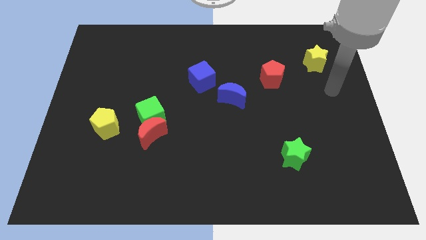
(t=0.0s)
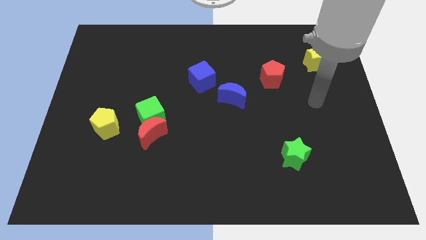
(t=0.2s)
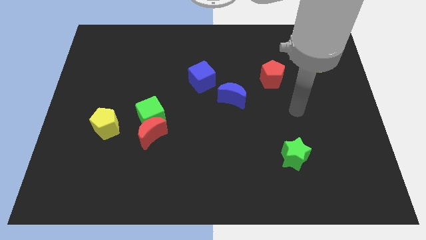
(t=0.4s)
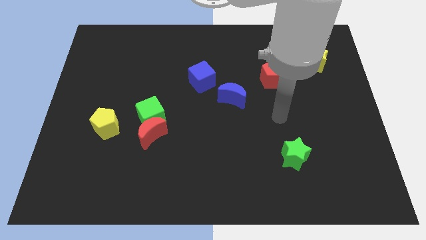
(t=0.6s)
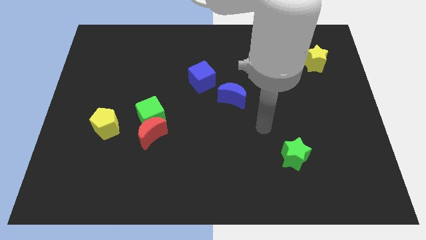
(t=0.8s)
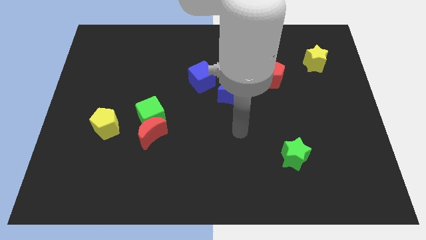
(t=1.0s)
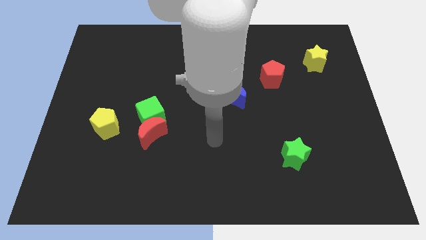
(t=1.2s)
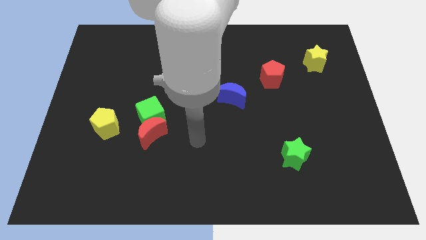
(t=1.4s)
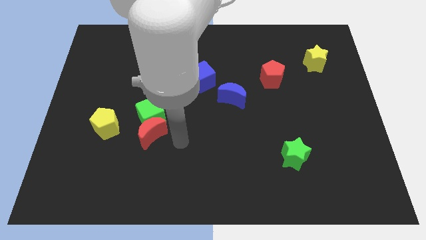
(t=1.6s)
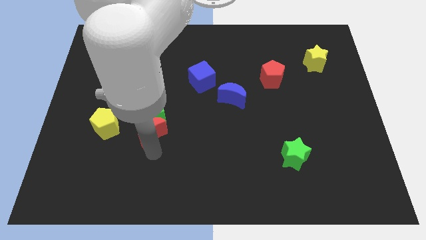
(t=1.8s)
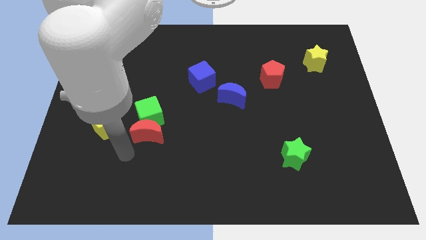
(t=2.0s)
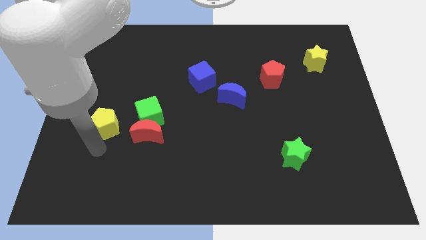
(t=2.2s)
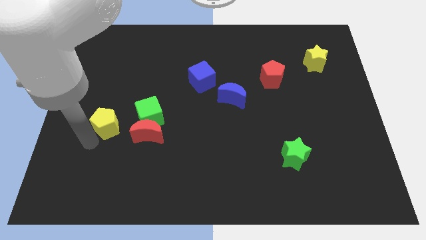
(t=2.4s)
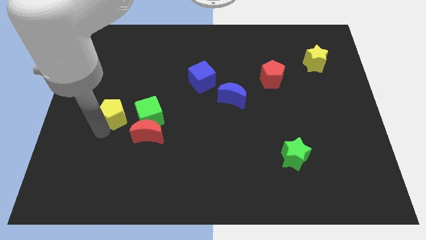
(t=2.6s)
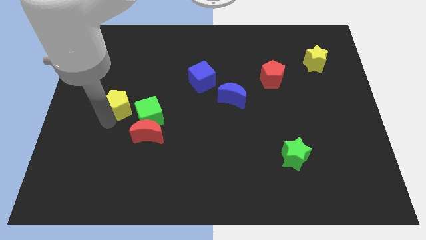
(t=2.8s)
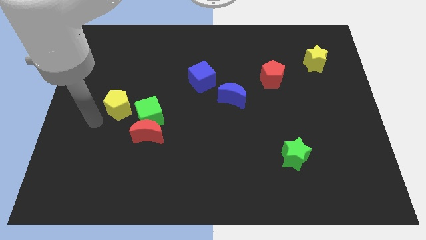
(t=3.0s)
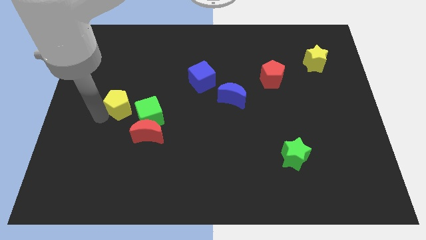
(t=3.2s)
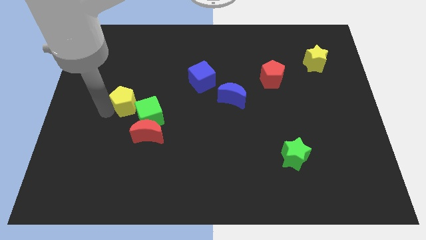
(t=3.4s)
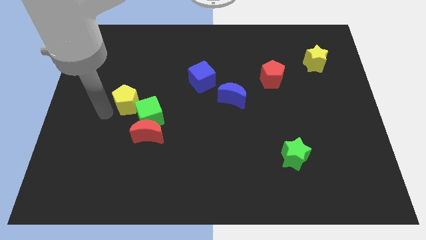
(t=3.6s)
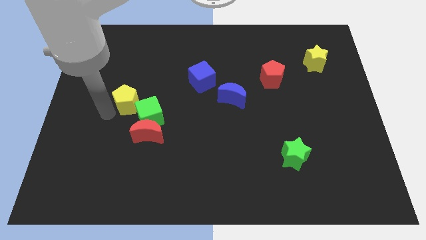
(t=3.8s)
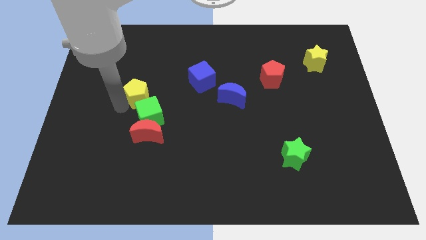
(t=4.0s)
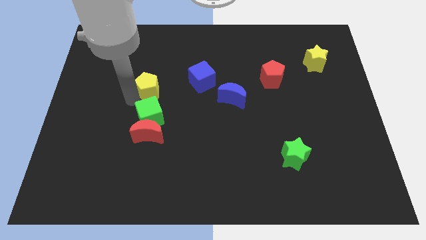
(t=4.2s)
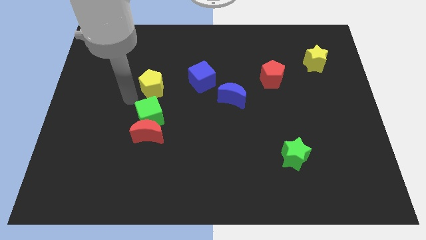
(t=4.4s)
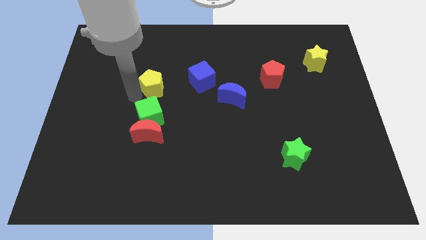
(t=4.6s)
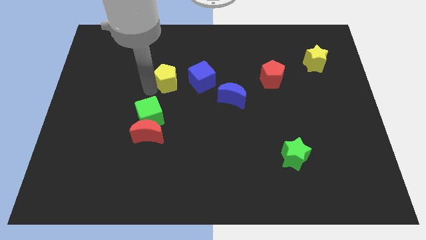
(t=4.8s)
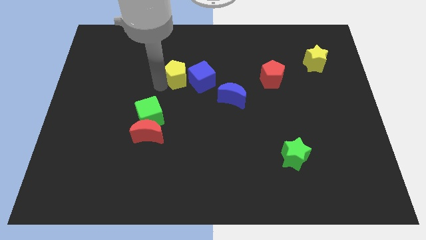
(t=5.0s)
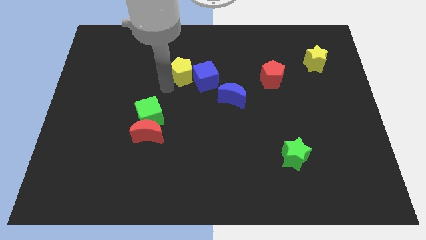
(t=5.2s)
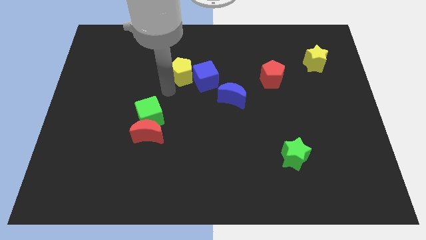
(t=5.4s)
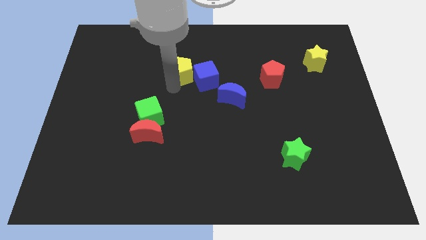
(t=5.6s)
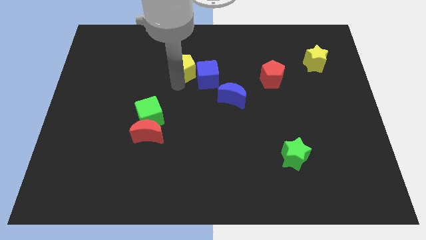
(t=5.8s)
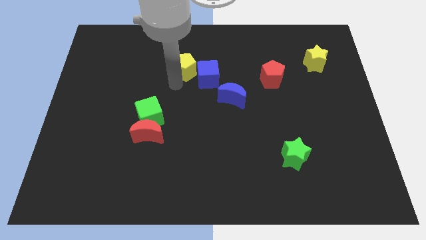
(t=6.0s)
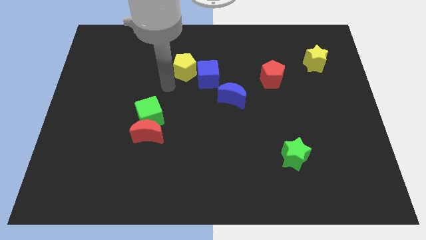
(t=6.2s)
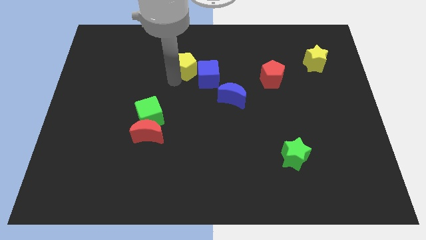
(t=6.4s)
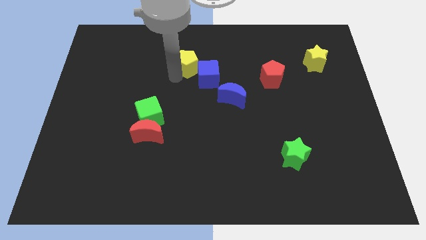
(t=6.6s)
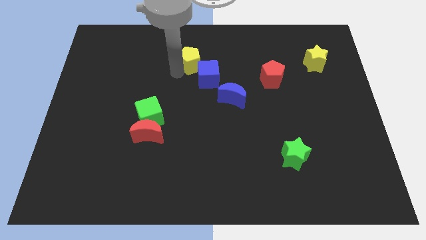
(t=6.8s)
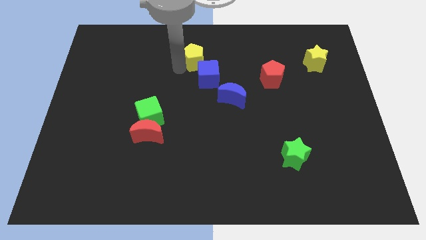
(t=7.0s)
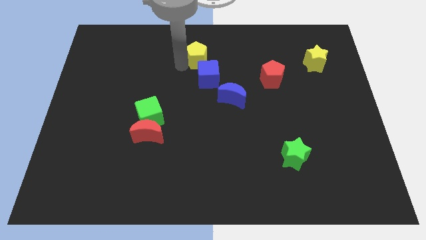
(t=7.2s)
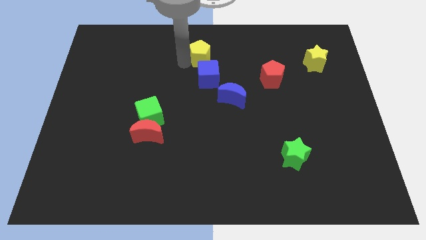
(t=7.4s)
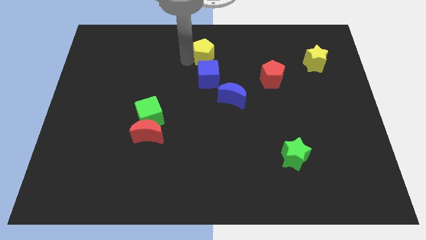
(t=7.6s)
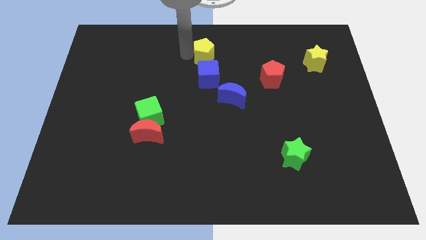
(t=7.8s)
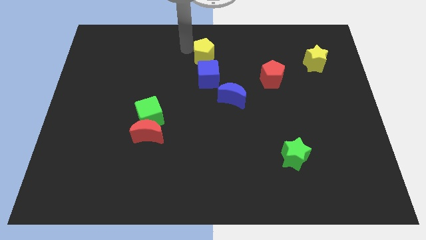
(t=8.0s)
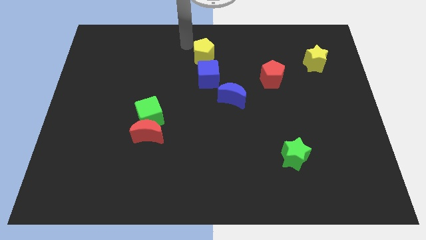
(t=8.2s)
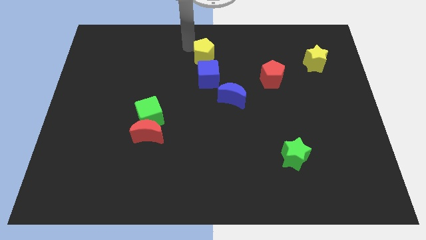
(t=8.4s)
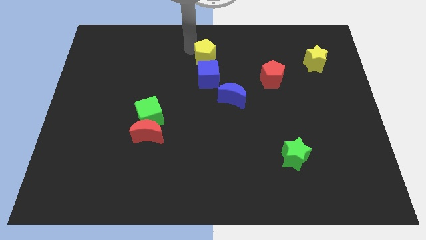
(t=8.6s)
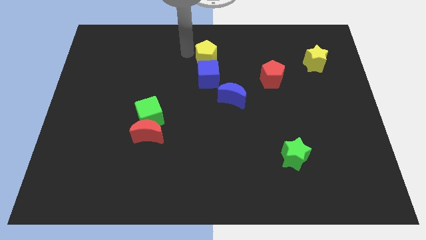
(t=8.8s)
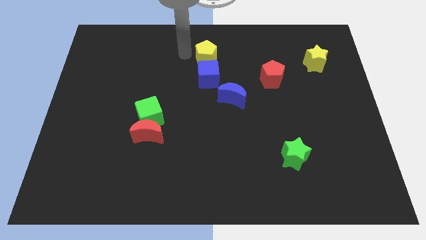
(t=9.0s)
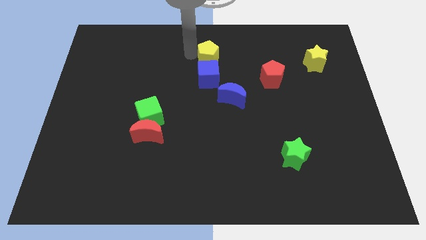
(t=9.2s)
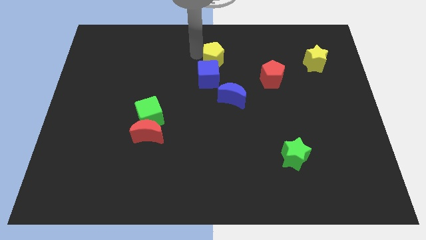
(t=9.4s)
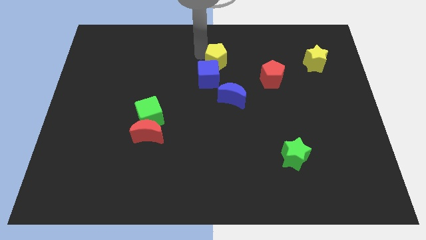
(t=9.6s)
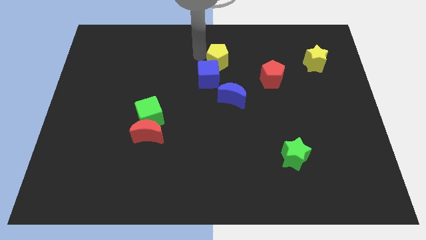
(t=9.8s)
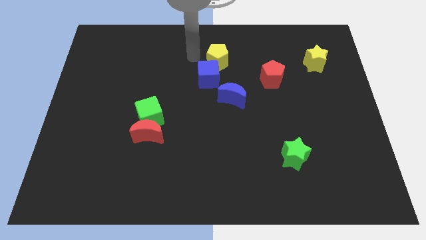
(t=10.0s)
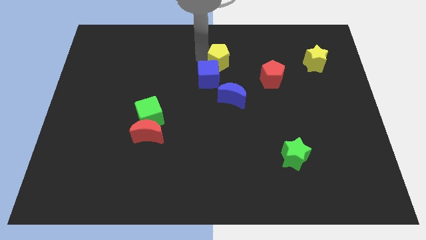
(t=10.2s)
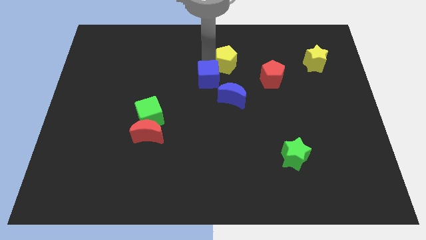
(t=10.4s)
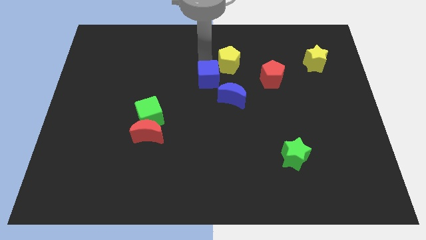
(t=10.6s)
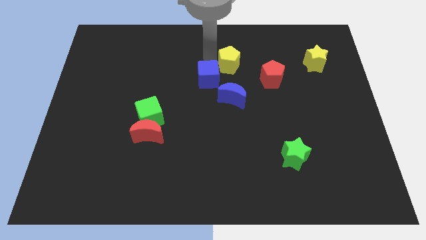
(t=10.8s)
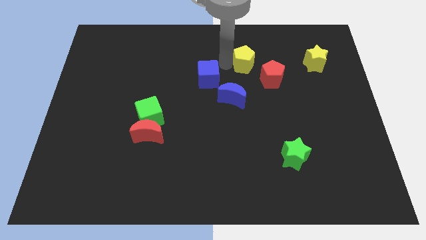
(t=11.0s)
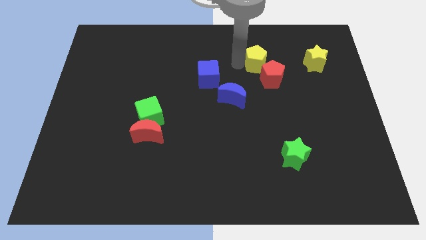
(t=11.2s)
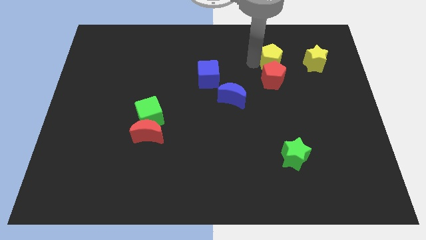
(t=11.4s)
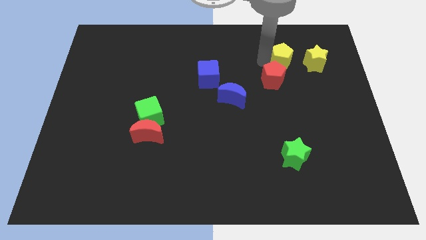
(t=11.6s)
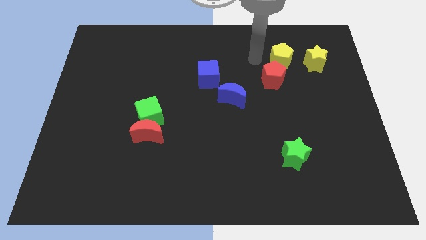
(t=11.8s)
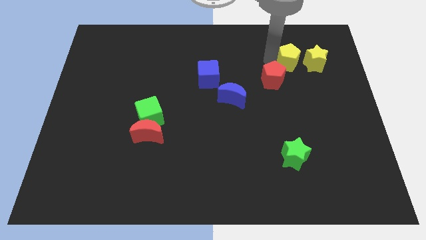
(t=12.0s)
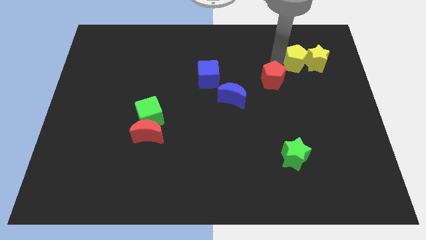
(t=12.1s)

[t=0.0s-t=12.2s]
push the yellow pentagon towards the yellow star

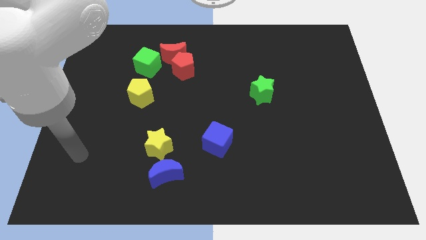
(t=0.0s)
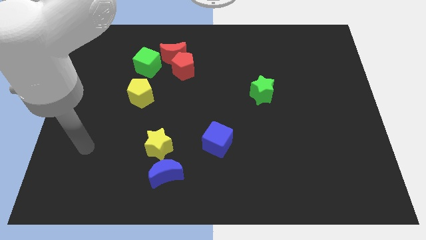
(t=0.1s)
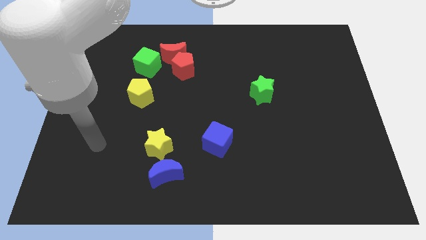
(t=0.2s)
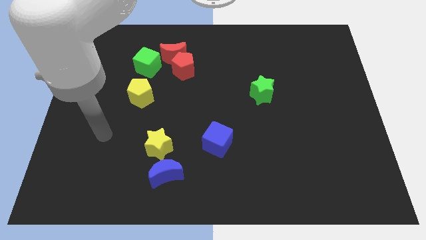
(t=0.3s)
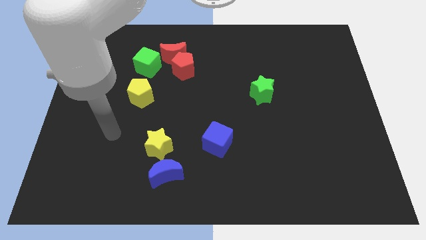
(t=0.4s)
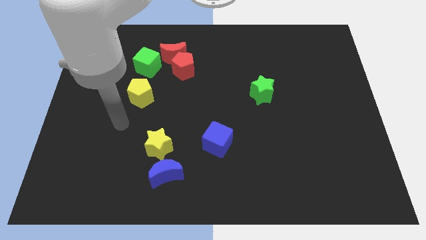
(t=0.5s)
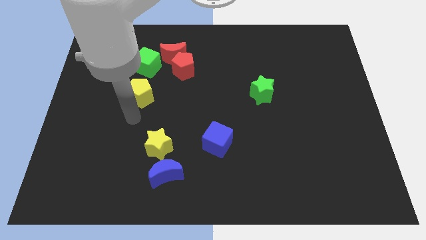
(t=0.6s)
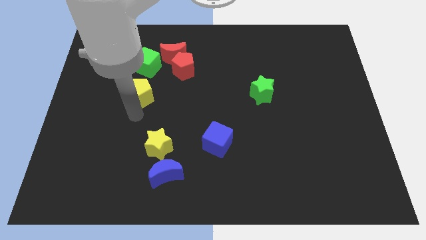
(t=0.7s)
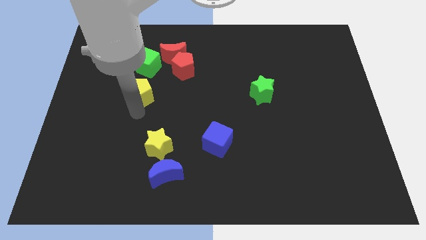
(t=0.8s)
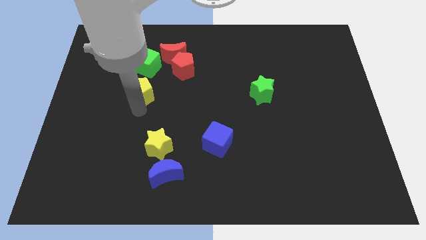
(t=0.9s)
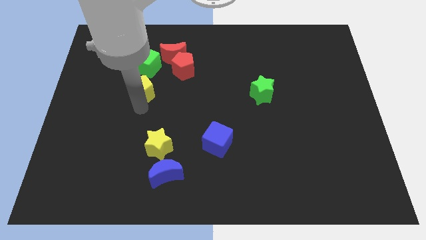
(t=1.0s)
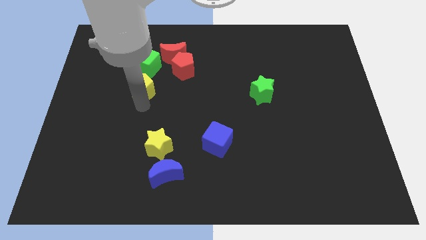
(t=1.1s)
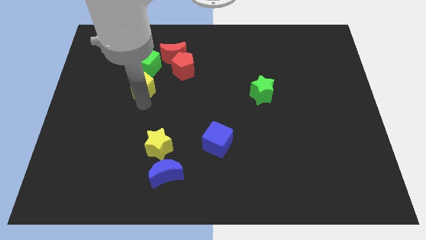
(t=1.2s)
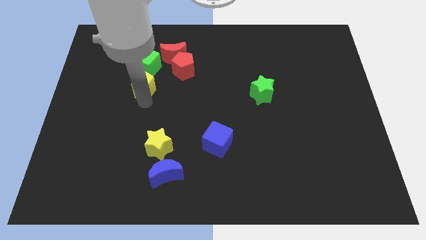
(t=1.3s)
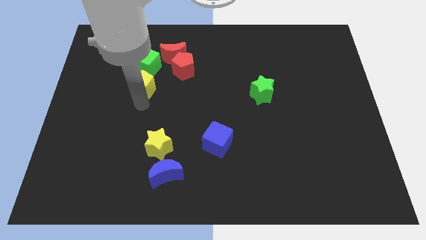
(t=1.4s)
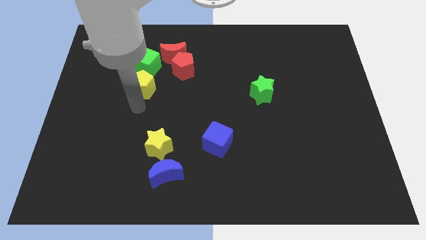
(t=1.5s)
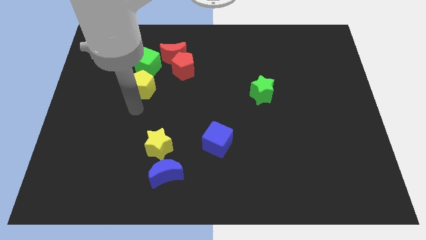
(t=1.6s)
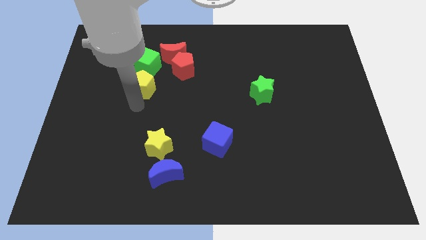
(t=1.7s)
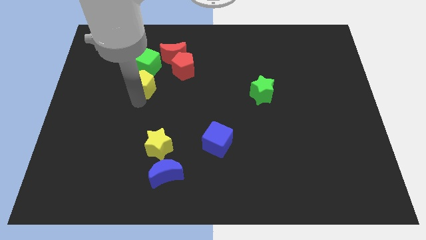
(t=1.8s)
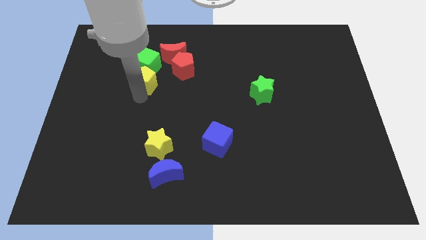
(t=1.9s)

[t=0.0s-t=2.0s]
push the yellow pentagon towards the green cube
